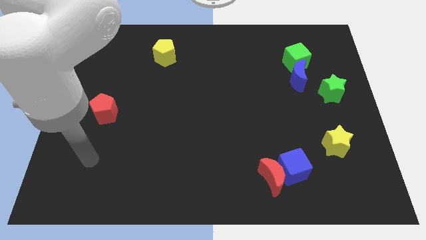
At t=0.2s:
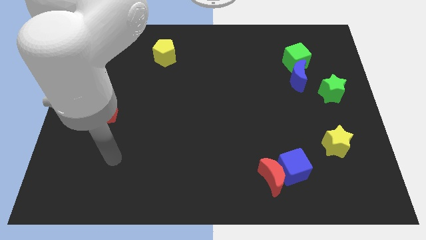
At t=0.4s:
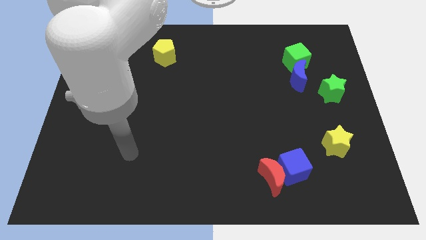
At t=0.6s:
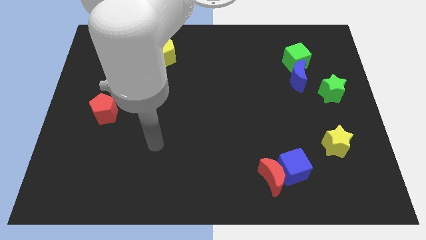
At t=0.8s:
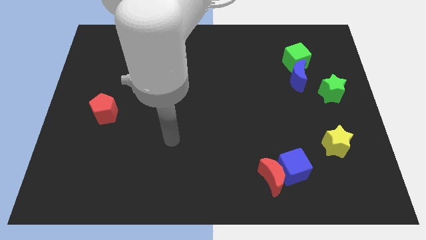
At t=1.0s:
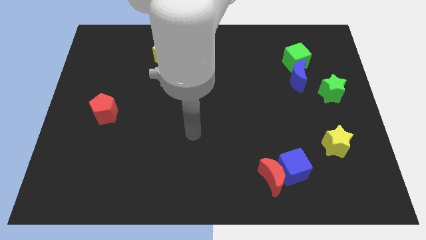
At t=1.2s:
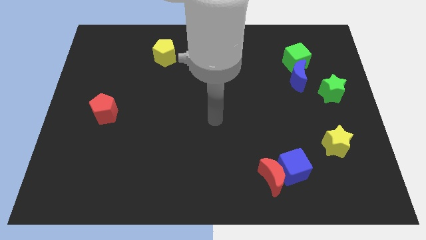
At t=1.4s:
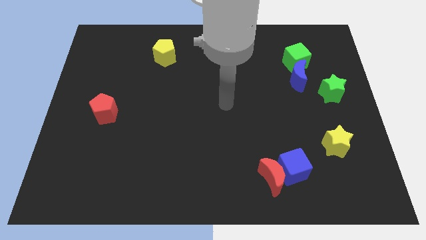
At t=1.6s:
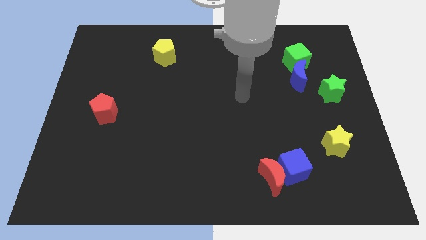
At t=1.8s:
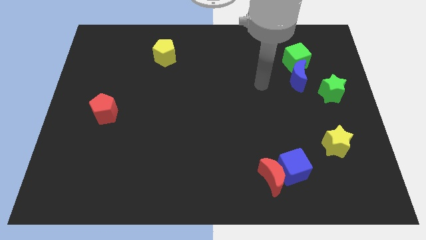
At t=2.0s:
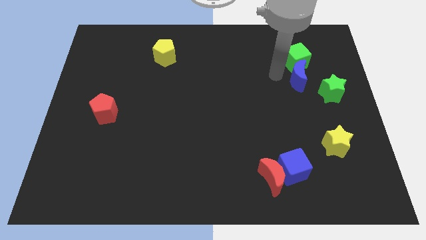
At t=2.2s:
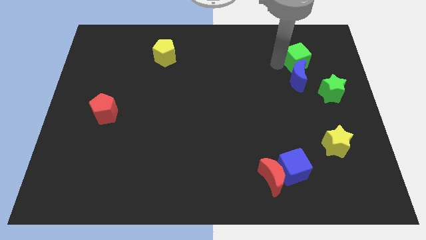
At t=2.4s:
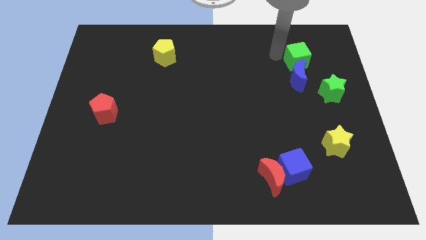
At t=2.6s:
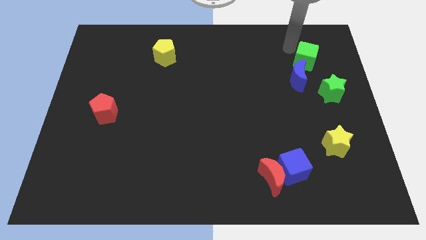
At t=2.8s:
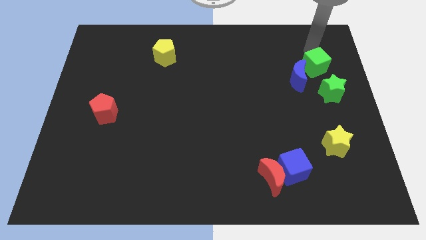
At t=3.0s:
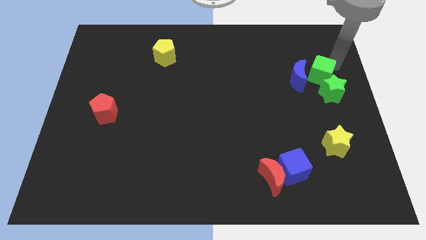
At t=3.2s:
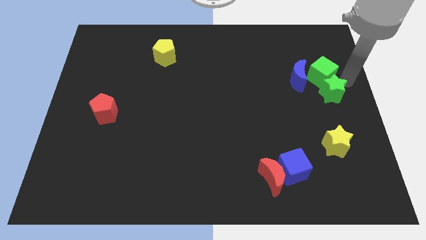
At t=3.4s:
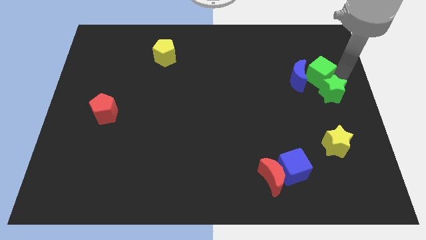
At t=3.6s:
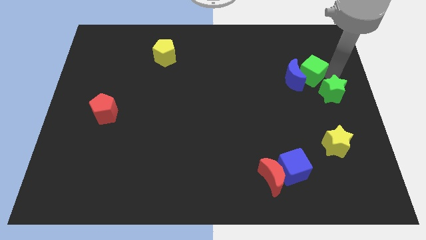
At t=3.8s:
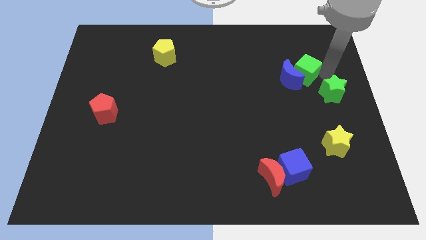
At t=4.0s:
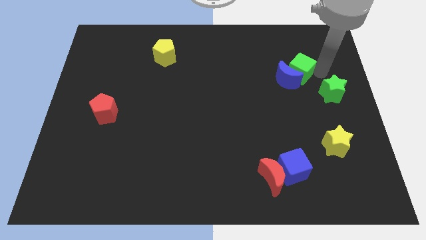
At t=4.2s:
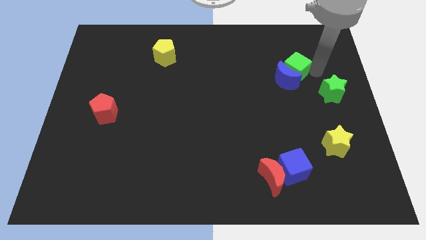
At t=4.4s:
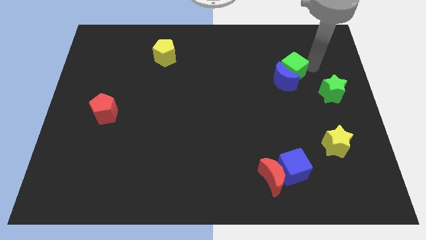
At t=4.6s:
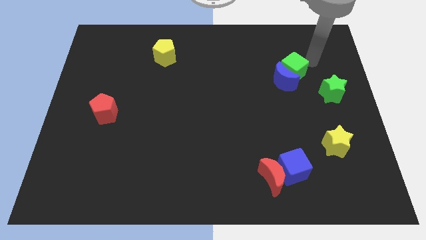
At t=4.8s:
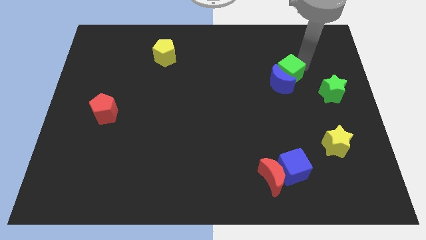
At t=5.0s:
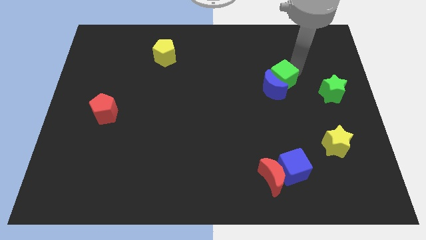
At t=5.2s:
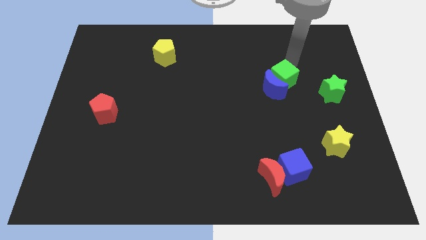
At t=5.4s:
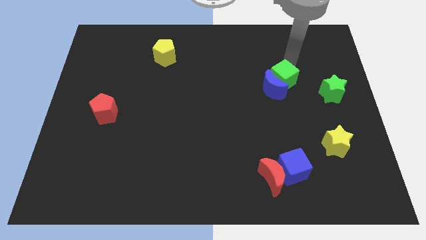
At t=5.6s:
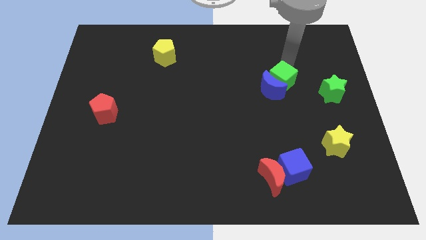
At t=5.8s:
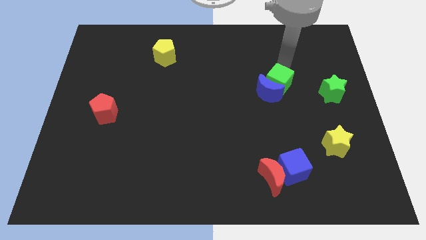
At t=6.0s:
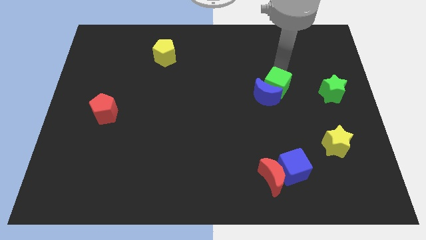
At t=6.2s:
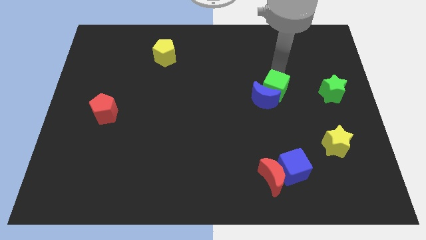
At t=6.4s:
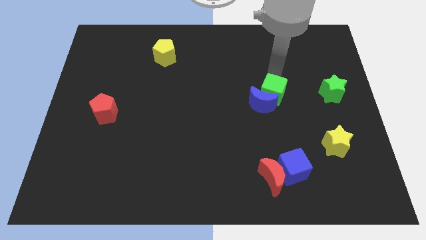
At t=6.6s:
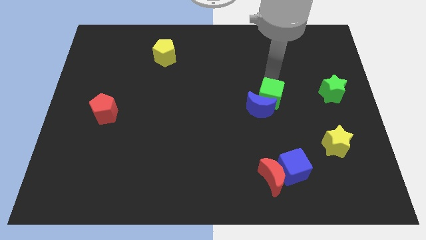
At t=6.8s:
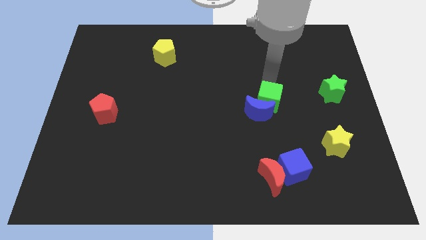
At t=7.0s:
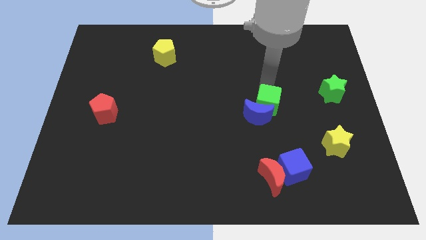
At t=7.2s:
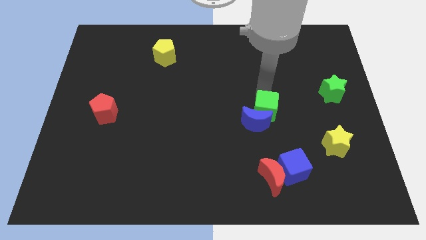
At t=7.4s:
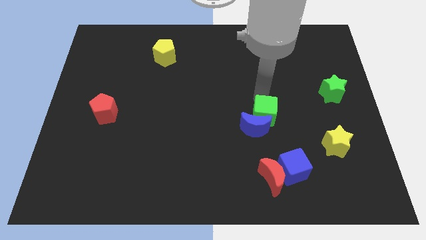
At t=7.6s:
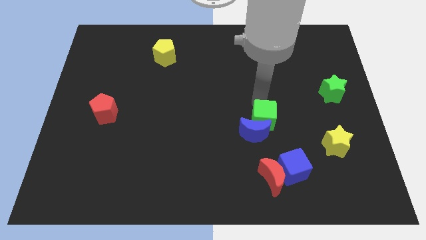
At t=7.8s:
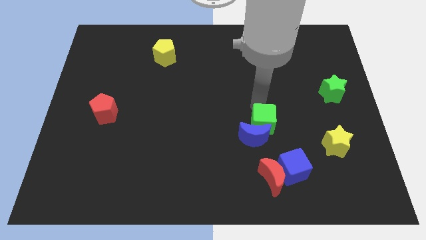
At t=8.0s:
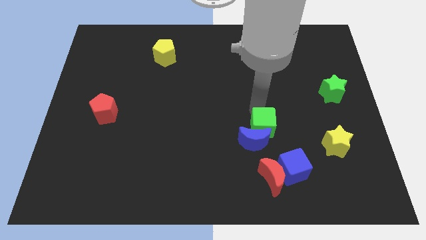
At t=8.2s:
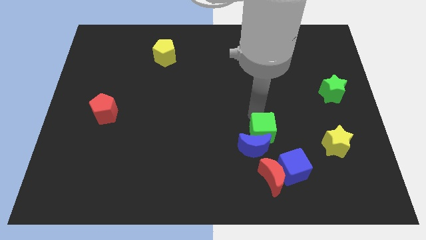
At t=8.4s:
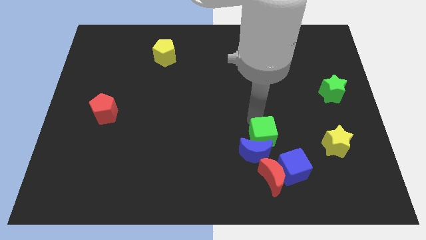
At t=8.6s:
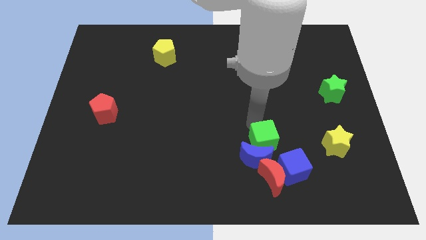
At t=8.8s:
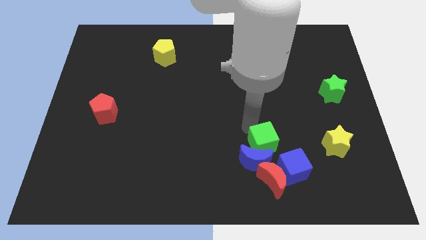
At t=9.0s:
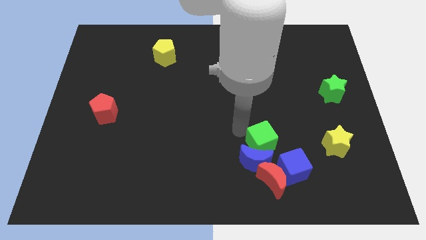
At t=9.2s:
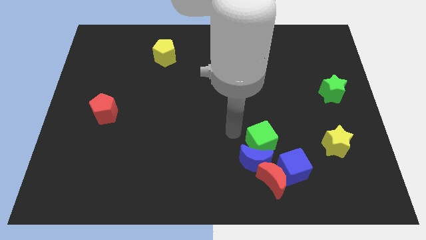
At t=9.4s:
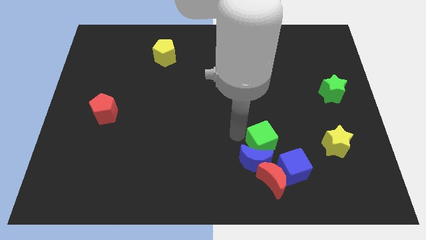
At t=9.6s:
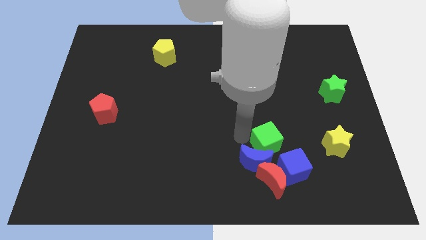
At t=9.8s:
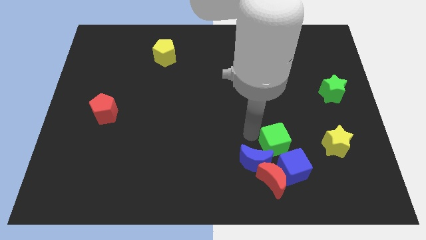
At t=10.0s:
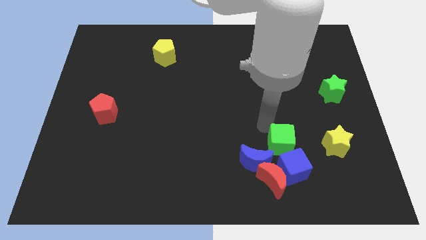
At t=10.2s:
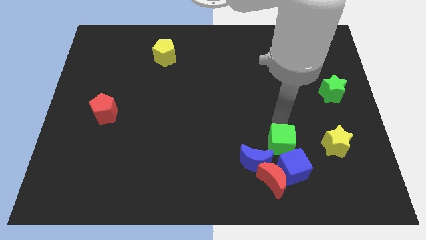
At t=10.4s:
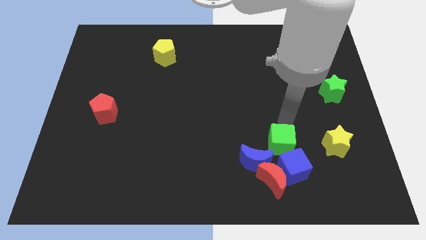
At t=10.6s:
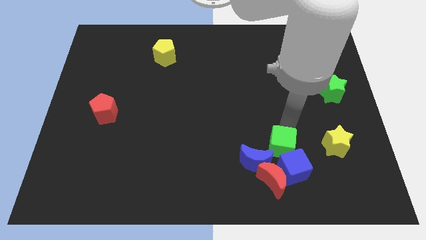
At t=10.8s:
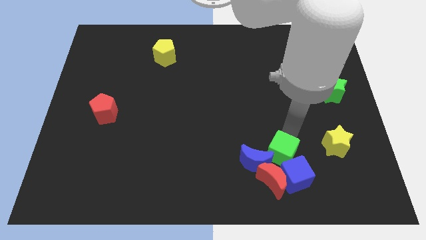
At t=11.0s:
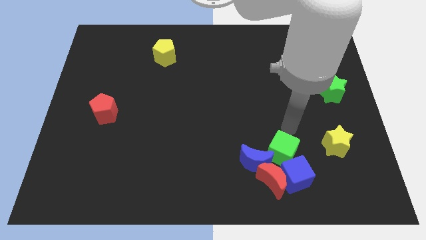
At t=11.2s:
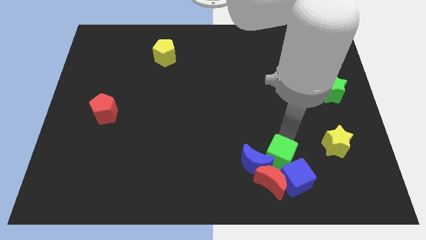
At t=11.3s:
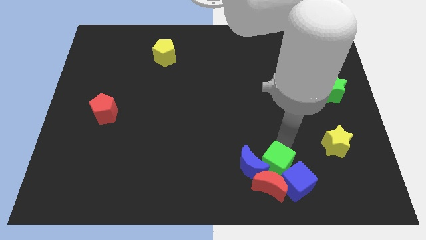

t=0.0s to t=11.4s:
put the green cube close to the red moon

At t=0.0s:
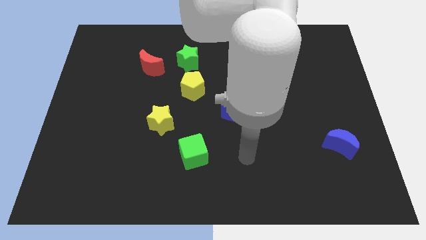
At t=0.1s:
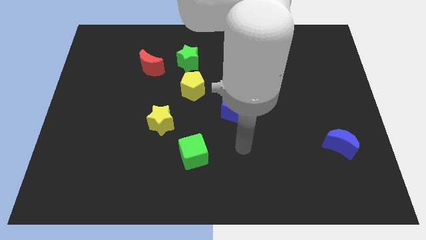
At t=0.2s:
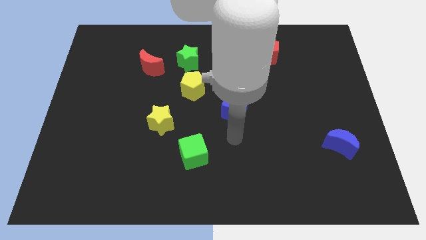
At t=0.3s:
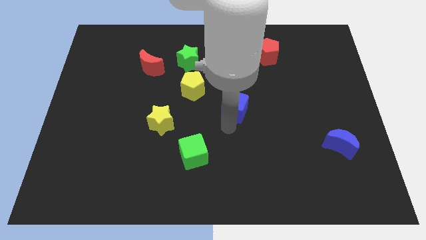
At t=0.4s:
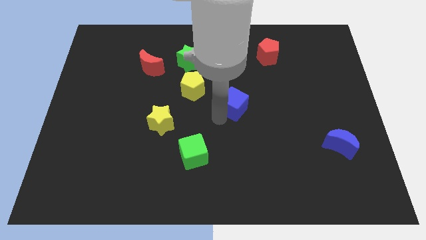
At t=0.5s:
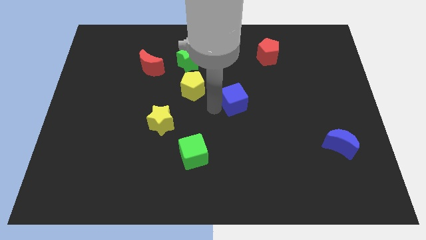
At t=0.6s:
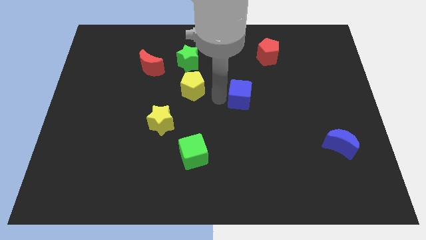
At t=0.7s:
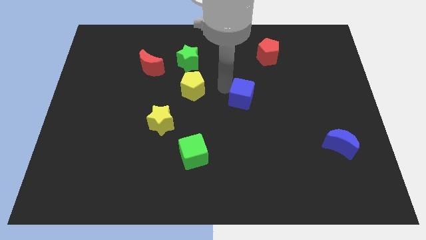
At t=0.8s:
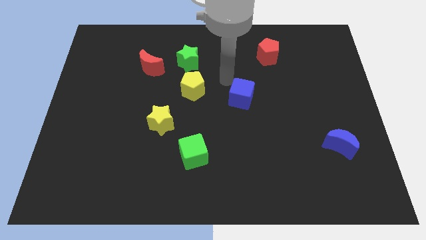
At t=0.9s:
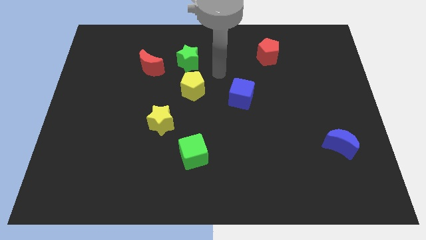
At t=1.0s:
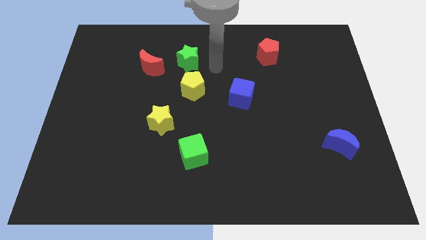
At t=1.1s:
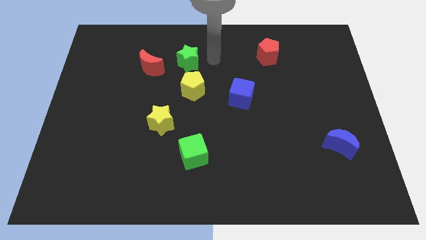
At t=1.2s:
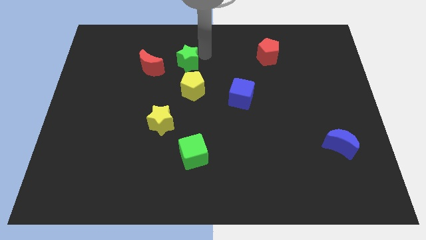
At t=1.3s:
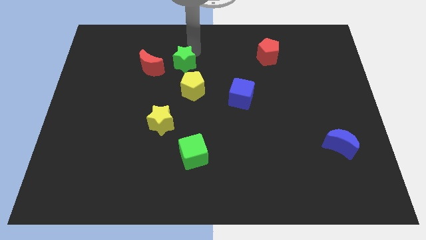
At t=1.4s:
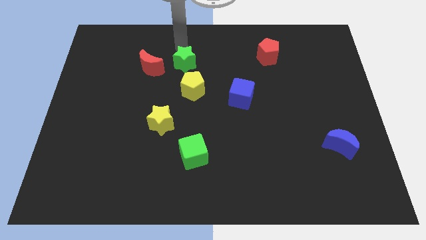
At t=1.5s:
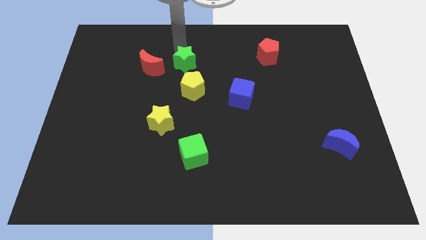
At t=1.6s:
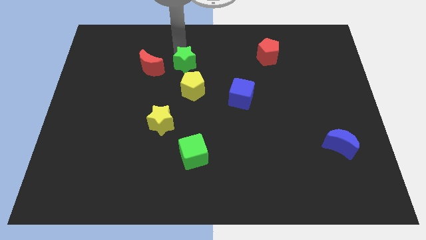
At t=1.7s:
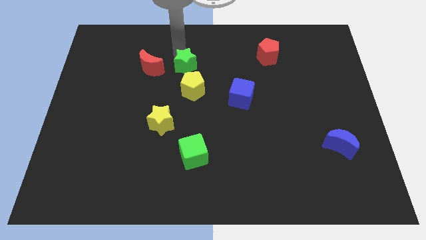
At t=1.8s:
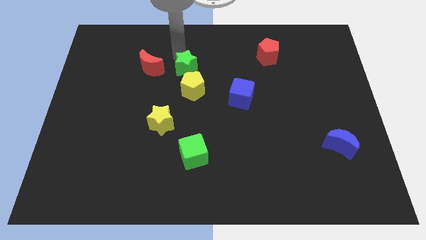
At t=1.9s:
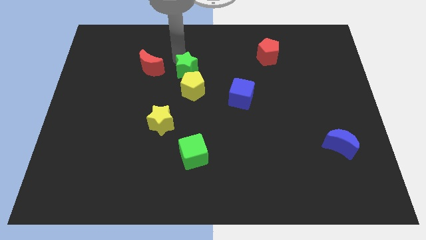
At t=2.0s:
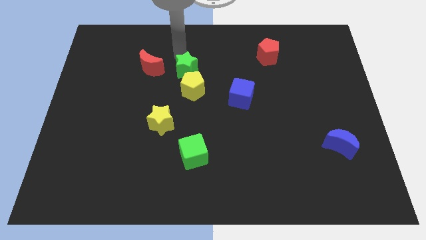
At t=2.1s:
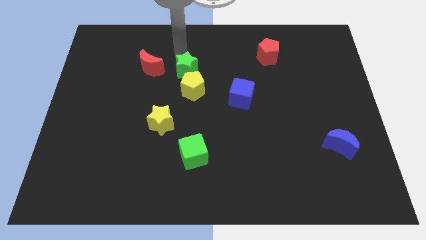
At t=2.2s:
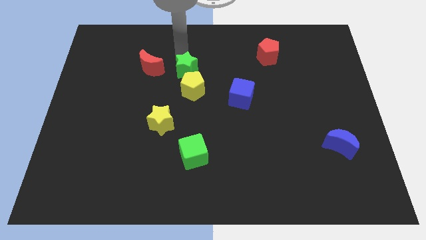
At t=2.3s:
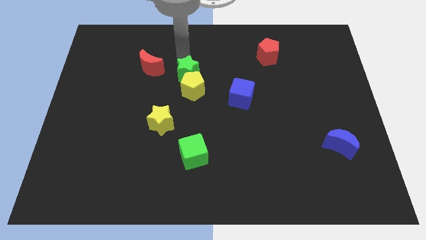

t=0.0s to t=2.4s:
push the green star towards the yellow pentagon
